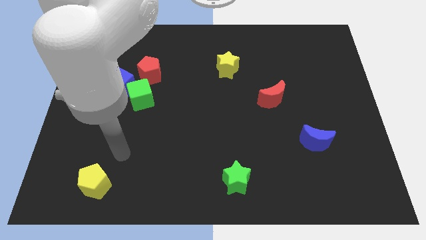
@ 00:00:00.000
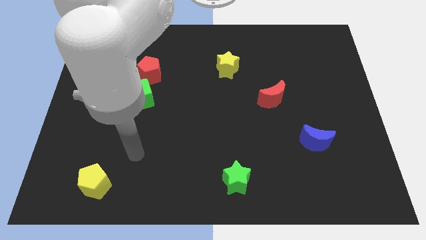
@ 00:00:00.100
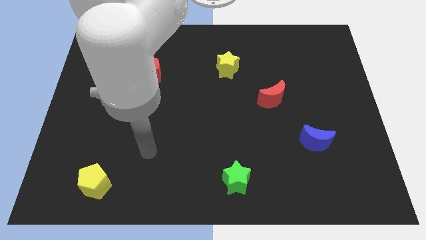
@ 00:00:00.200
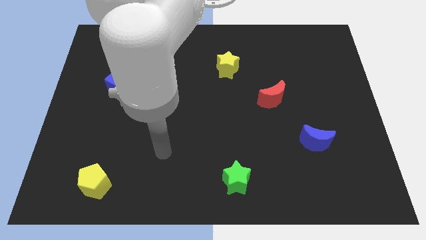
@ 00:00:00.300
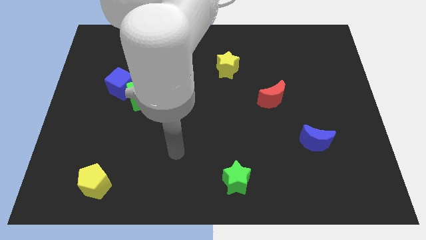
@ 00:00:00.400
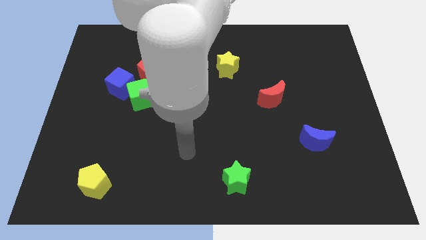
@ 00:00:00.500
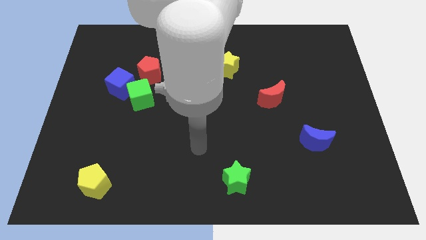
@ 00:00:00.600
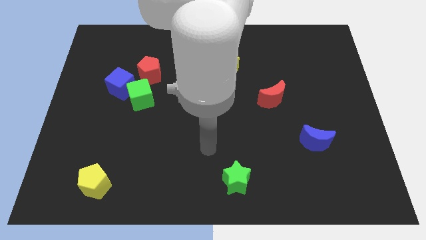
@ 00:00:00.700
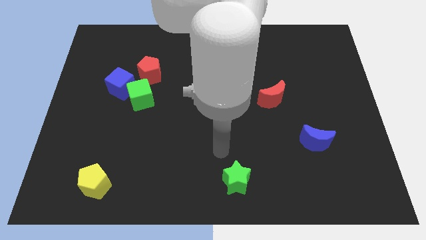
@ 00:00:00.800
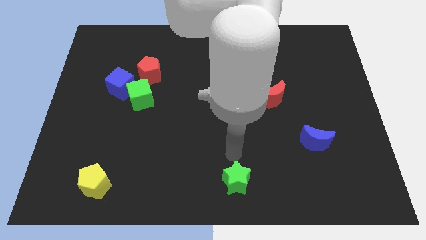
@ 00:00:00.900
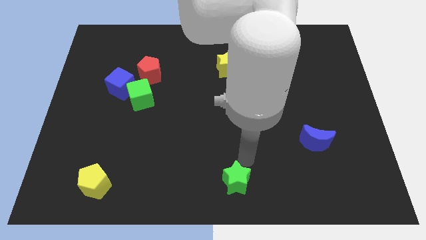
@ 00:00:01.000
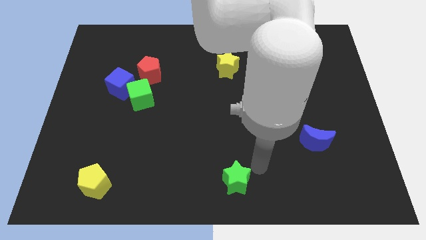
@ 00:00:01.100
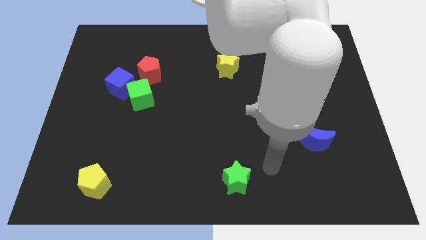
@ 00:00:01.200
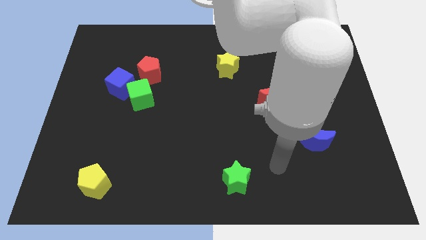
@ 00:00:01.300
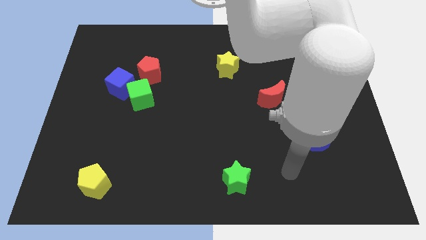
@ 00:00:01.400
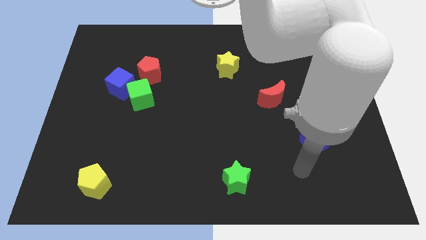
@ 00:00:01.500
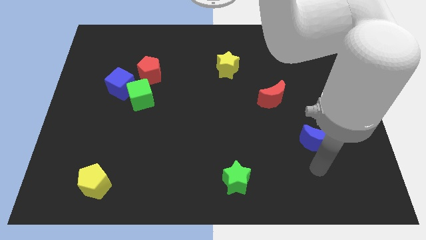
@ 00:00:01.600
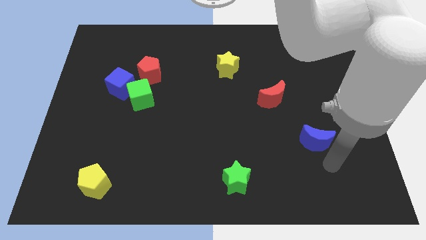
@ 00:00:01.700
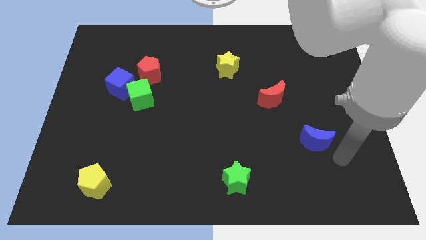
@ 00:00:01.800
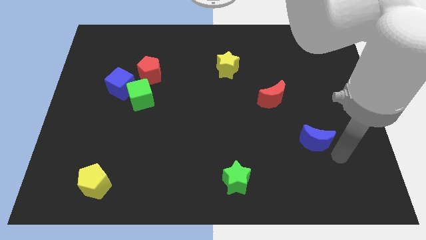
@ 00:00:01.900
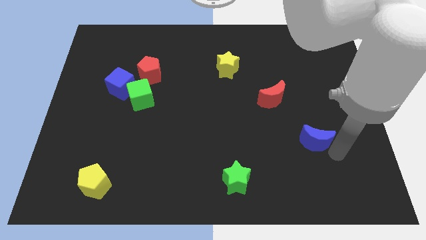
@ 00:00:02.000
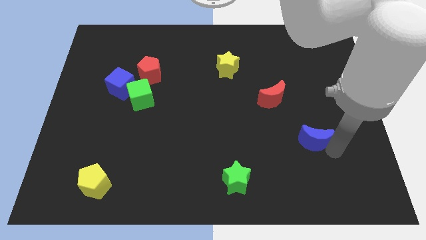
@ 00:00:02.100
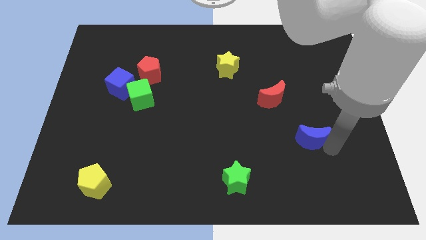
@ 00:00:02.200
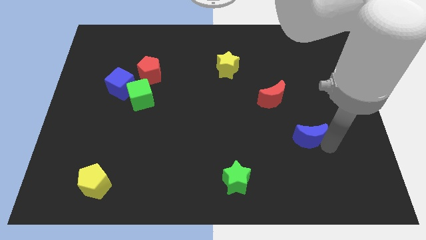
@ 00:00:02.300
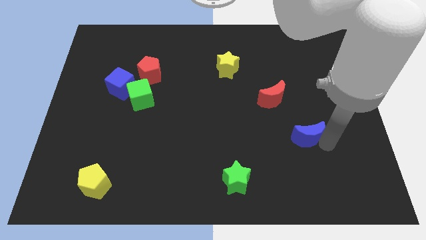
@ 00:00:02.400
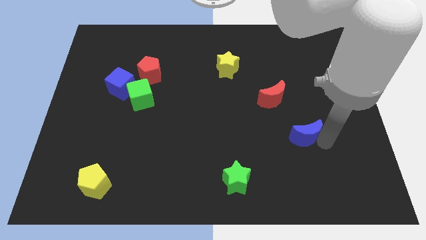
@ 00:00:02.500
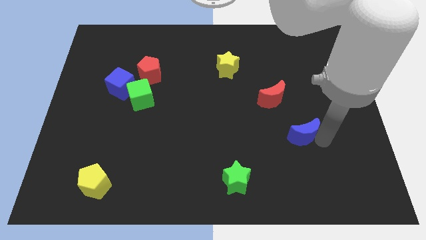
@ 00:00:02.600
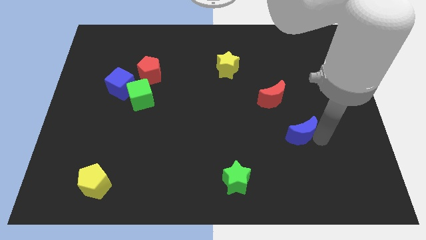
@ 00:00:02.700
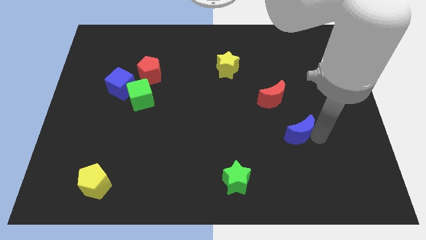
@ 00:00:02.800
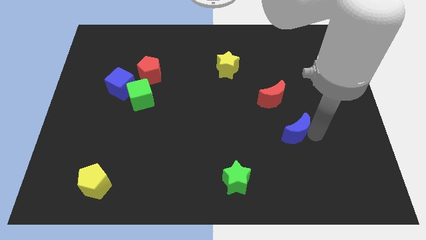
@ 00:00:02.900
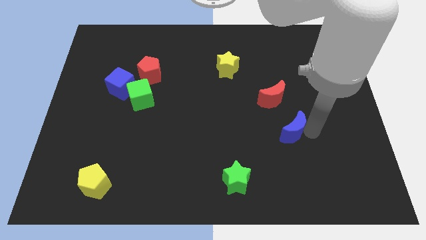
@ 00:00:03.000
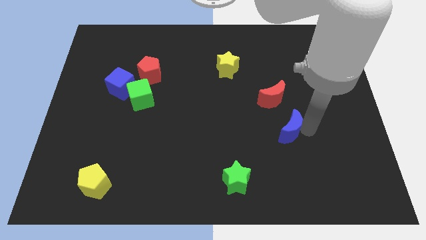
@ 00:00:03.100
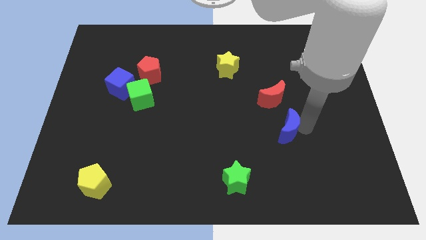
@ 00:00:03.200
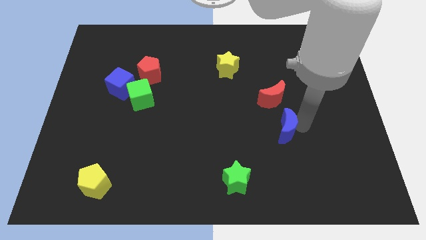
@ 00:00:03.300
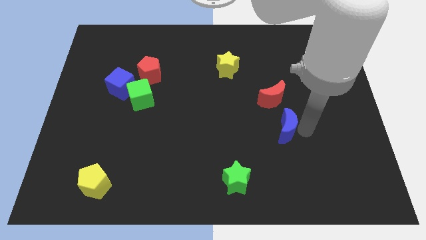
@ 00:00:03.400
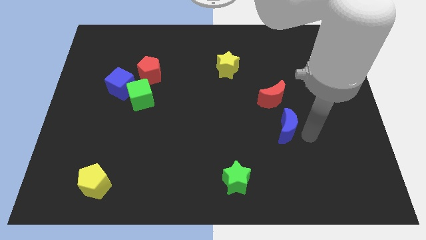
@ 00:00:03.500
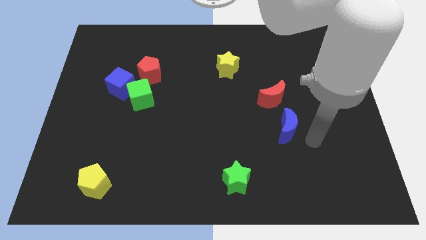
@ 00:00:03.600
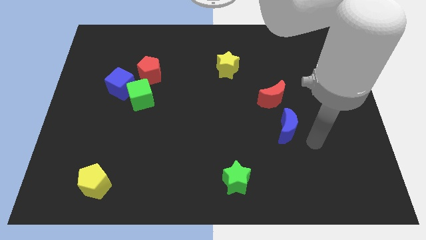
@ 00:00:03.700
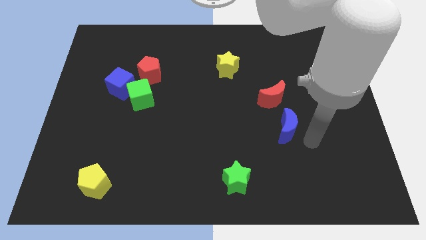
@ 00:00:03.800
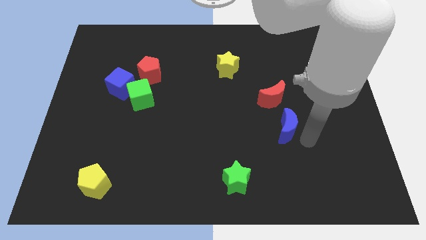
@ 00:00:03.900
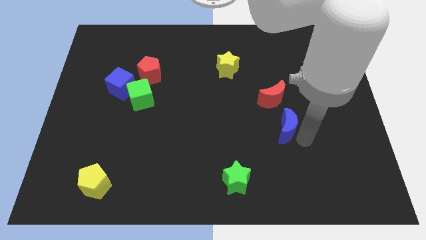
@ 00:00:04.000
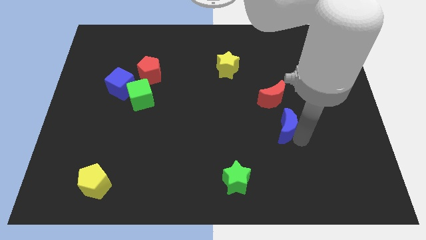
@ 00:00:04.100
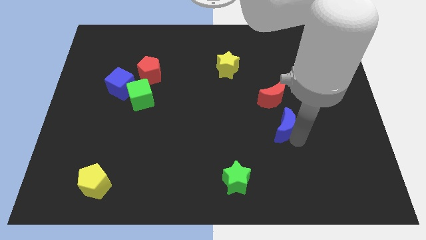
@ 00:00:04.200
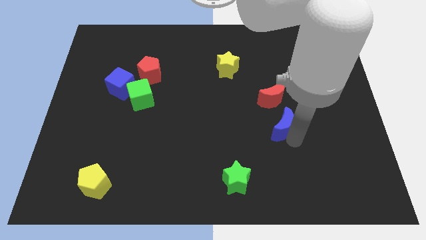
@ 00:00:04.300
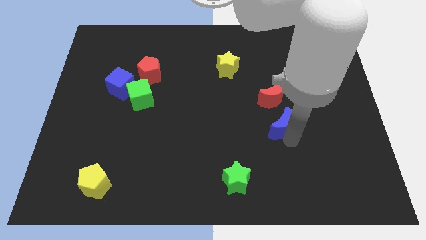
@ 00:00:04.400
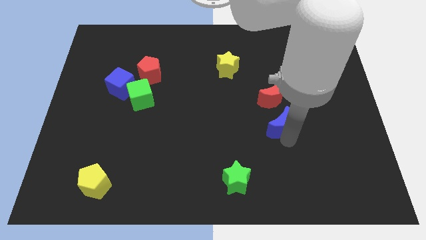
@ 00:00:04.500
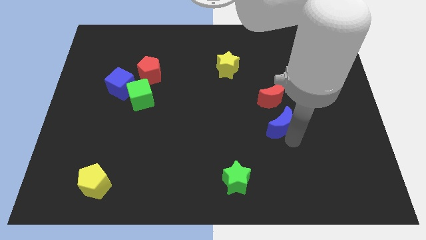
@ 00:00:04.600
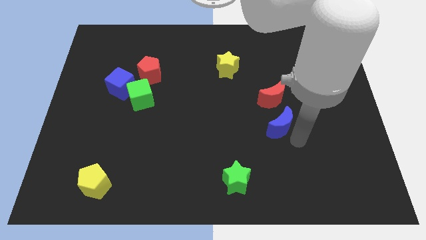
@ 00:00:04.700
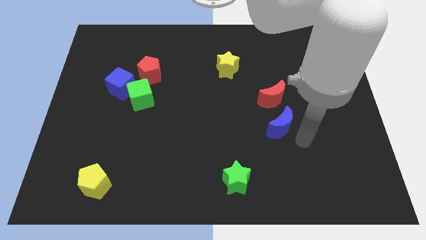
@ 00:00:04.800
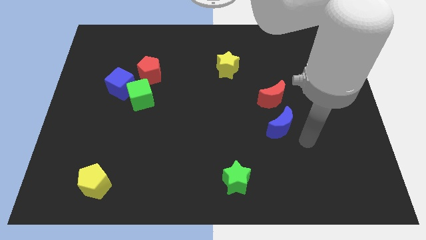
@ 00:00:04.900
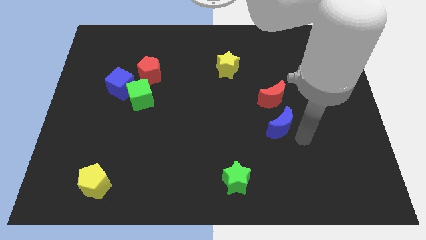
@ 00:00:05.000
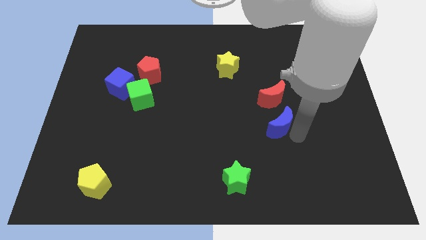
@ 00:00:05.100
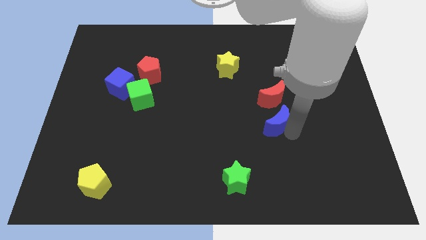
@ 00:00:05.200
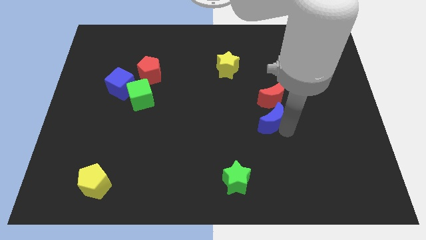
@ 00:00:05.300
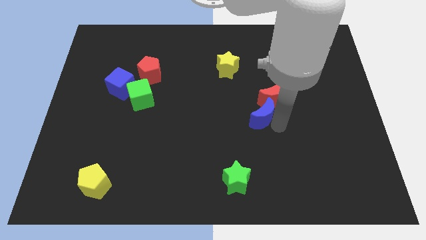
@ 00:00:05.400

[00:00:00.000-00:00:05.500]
move the blue moon to the center

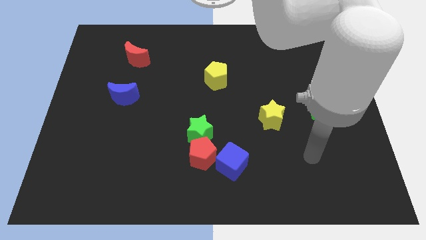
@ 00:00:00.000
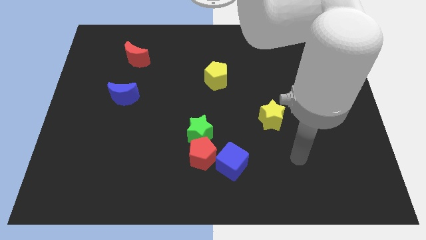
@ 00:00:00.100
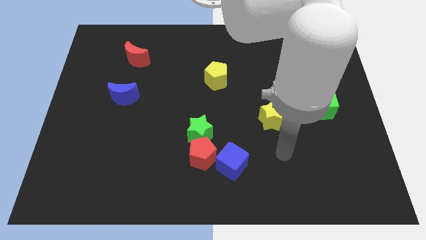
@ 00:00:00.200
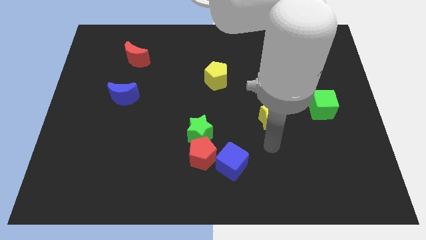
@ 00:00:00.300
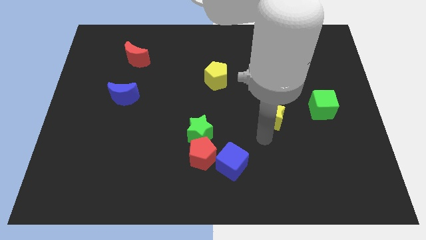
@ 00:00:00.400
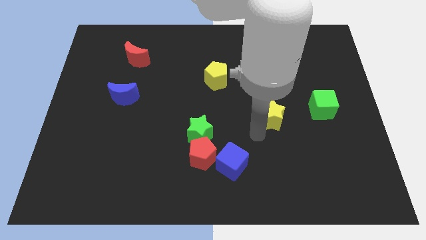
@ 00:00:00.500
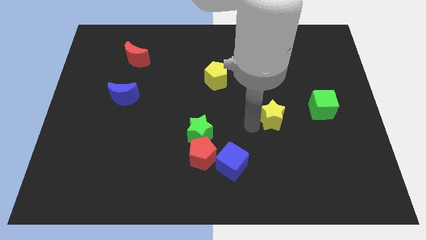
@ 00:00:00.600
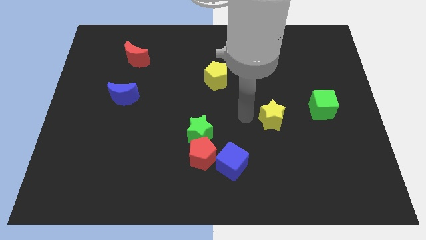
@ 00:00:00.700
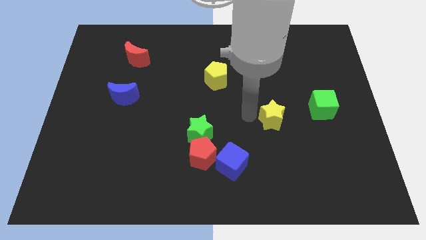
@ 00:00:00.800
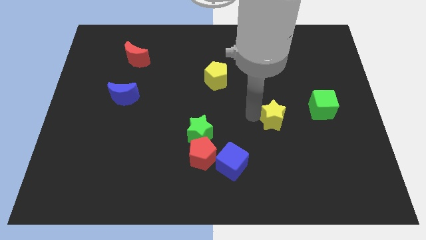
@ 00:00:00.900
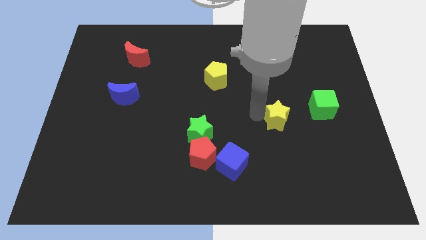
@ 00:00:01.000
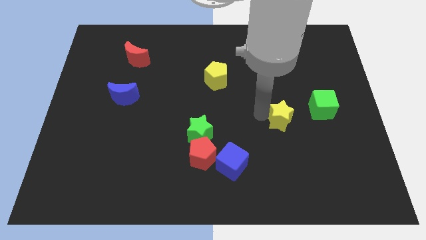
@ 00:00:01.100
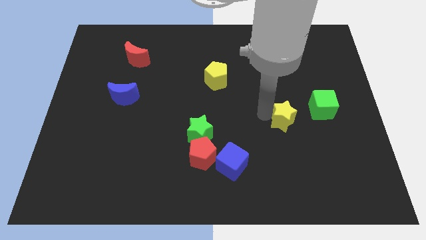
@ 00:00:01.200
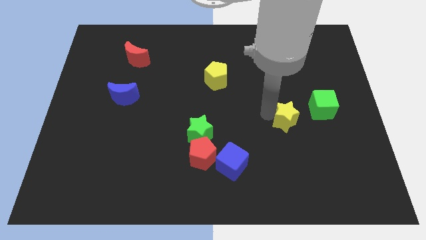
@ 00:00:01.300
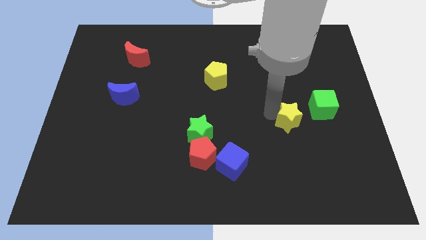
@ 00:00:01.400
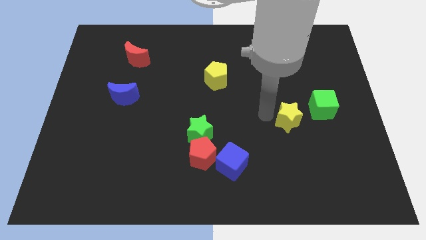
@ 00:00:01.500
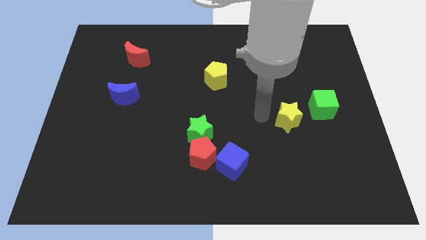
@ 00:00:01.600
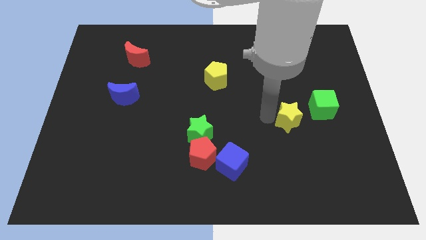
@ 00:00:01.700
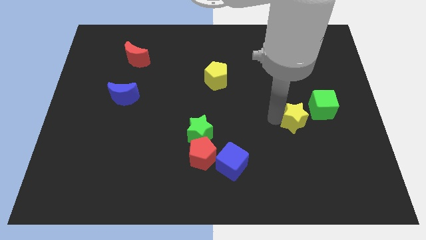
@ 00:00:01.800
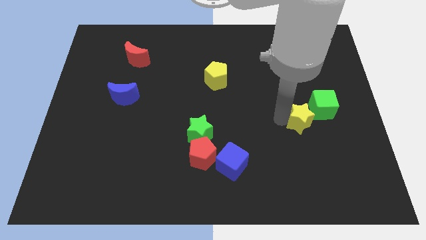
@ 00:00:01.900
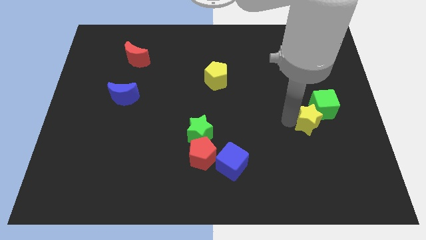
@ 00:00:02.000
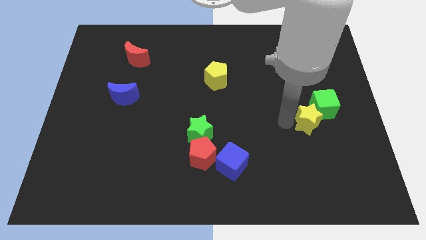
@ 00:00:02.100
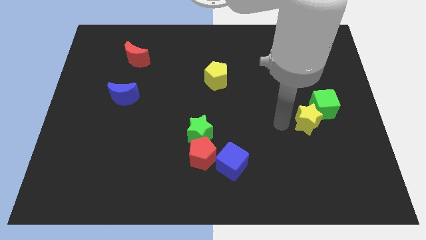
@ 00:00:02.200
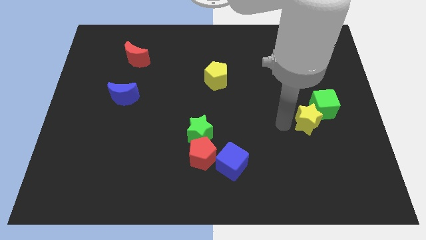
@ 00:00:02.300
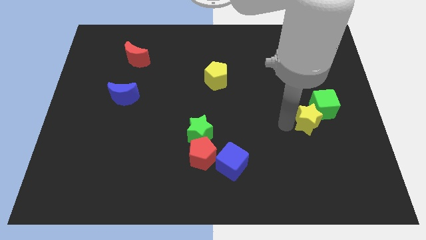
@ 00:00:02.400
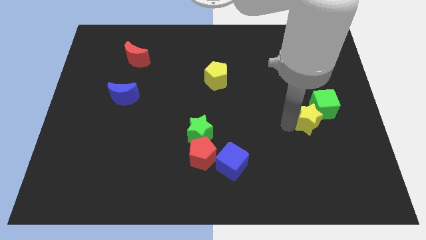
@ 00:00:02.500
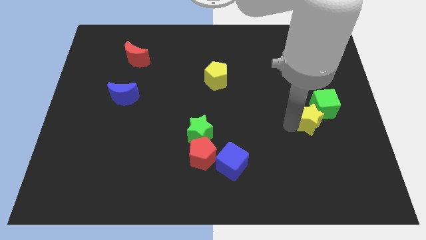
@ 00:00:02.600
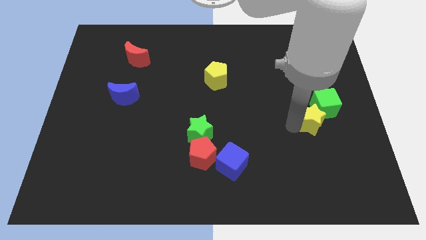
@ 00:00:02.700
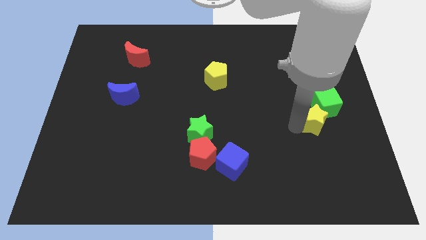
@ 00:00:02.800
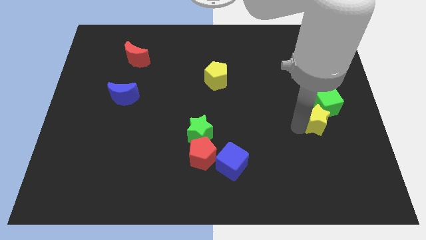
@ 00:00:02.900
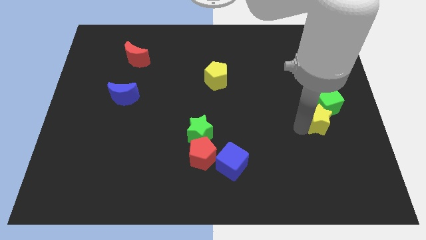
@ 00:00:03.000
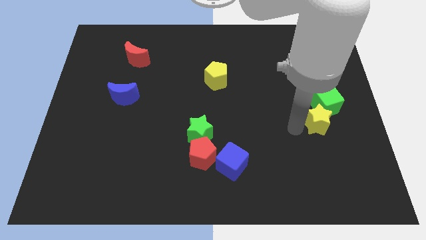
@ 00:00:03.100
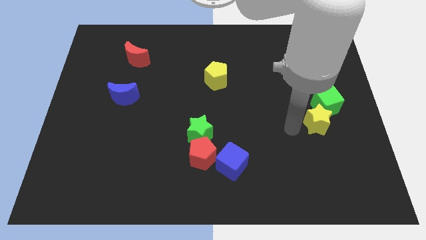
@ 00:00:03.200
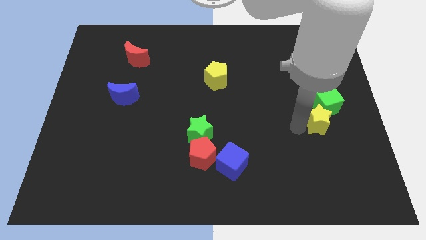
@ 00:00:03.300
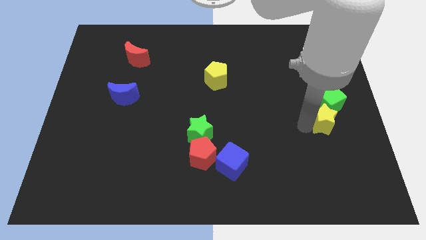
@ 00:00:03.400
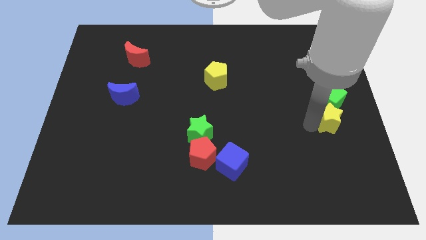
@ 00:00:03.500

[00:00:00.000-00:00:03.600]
put the yellow star to the right side of the board
